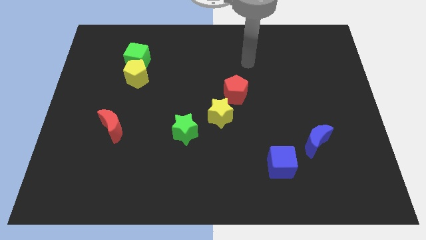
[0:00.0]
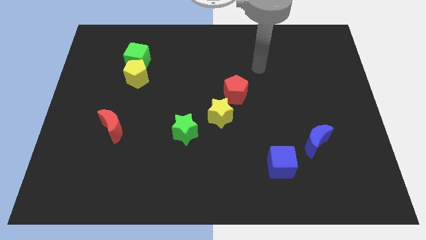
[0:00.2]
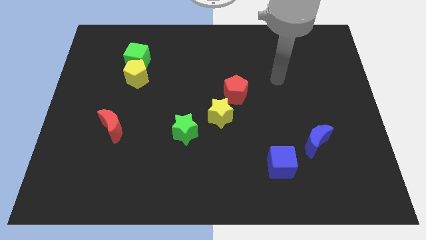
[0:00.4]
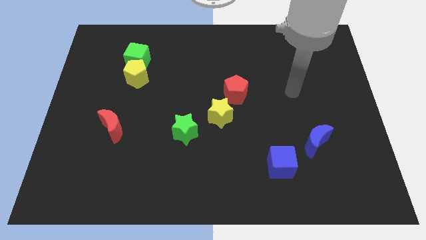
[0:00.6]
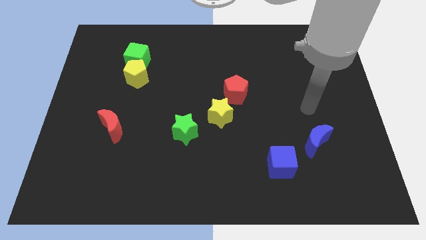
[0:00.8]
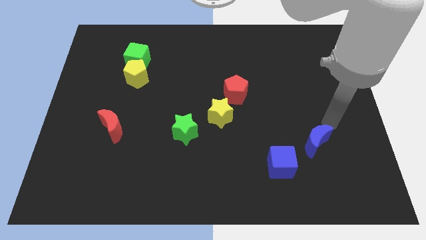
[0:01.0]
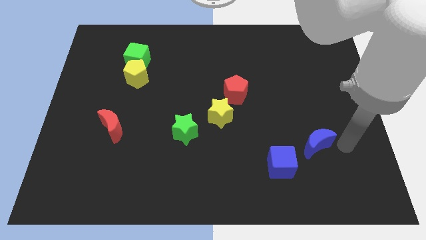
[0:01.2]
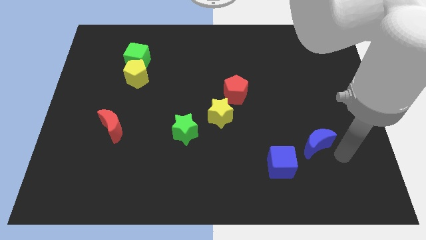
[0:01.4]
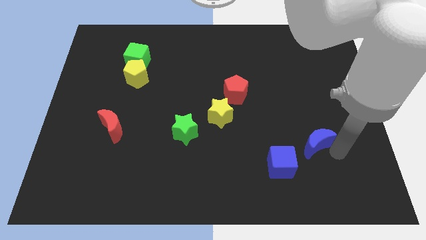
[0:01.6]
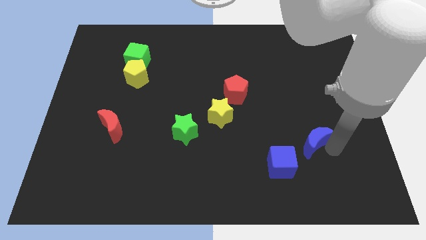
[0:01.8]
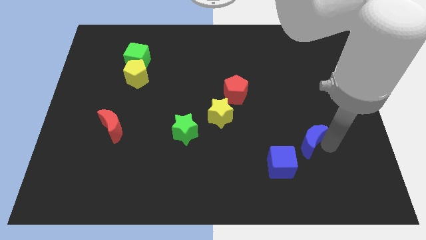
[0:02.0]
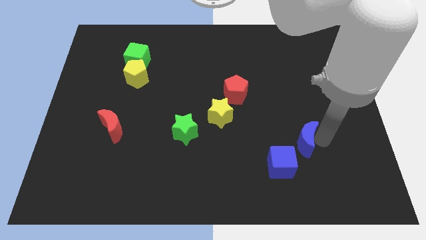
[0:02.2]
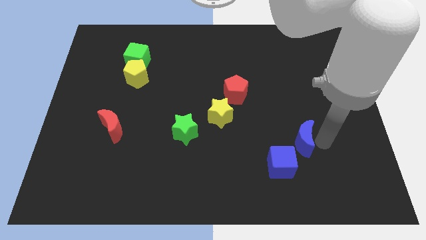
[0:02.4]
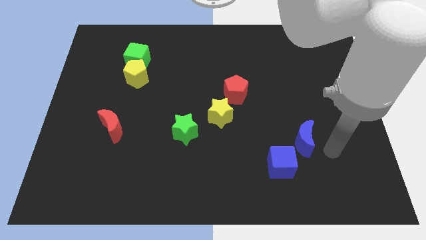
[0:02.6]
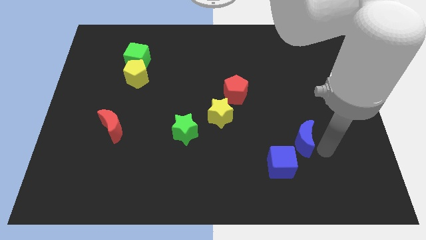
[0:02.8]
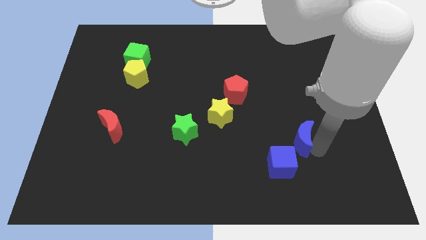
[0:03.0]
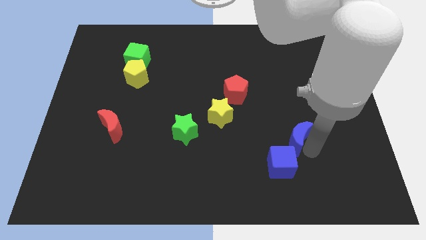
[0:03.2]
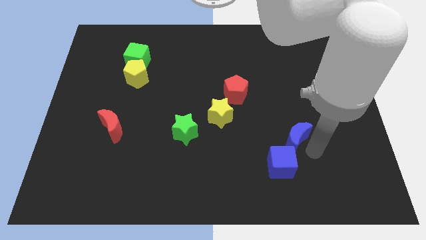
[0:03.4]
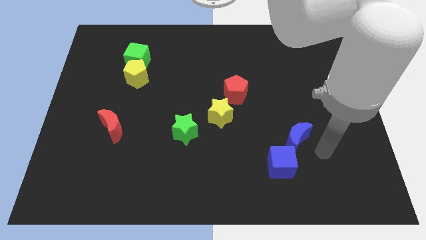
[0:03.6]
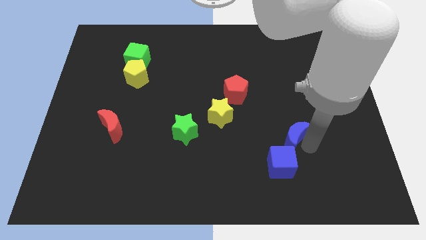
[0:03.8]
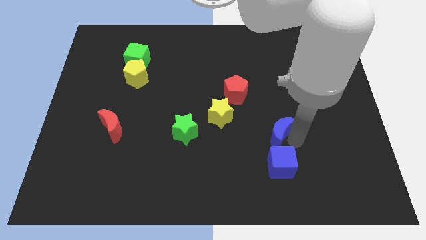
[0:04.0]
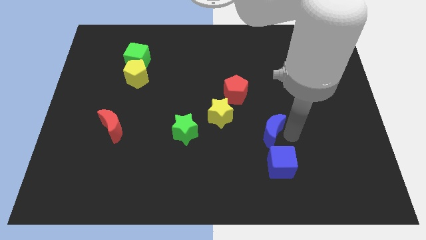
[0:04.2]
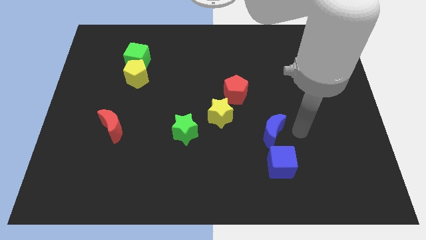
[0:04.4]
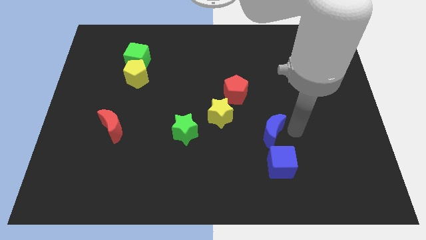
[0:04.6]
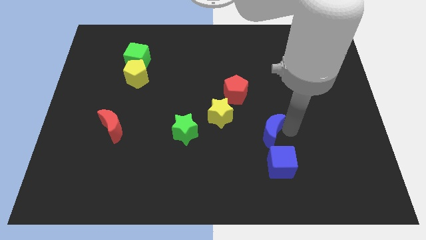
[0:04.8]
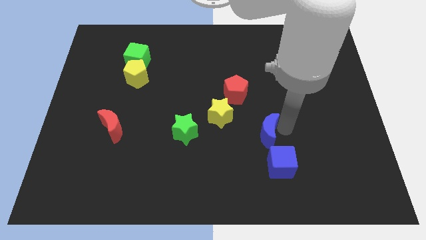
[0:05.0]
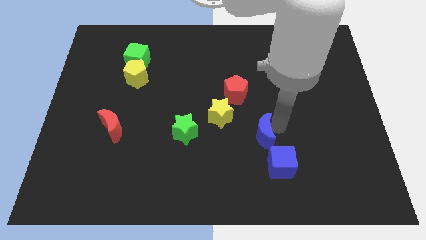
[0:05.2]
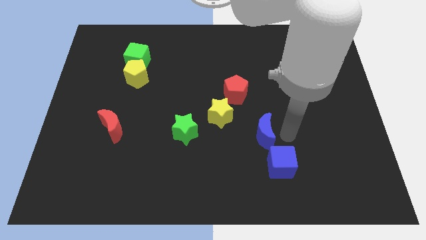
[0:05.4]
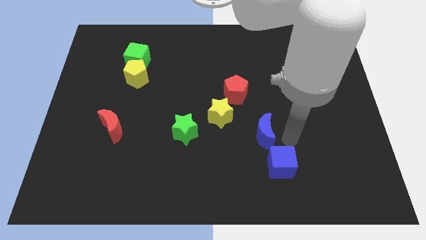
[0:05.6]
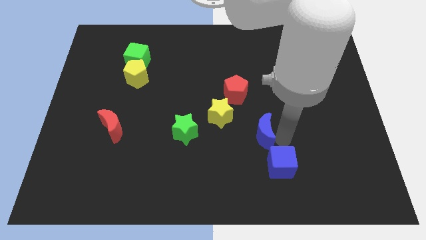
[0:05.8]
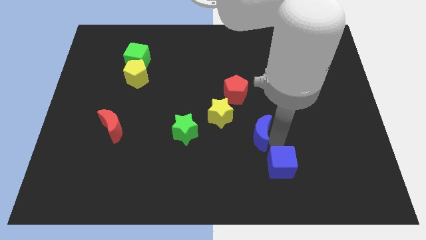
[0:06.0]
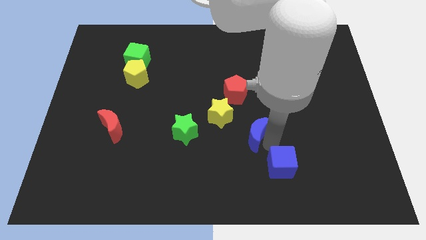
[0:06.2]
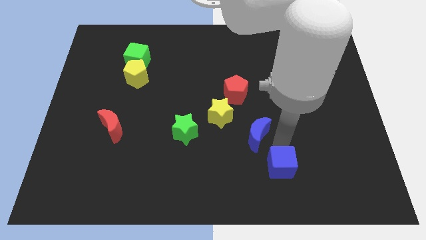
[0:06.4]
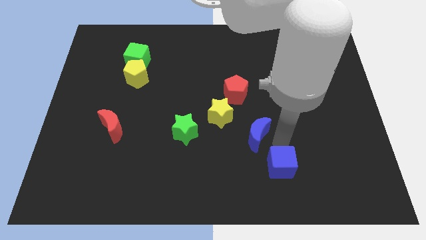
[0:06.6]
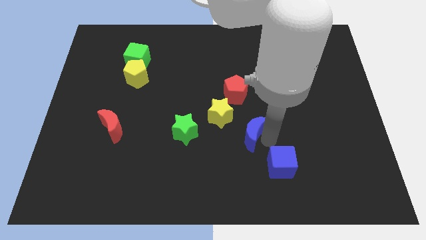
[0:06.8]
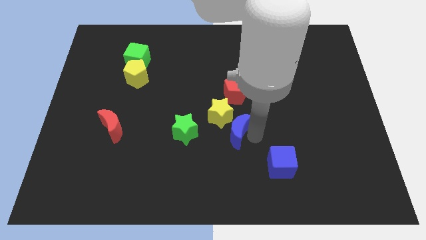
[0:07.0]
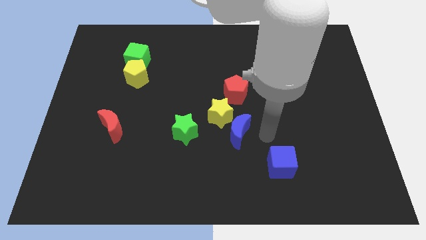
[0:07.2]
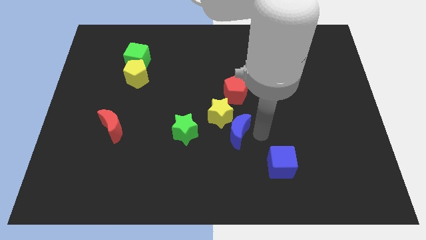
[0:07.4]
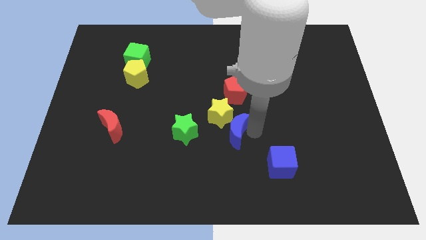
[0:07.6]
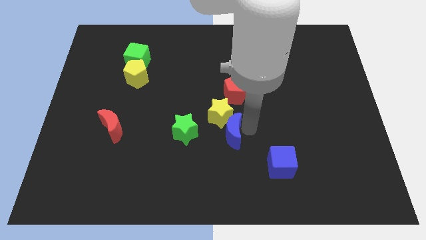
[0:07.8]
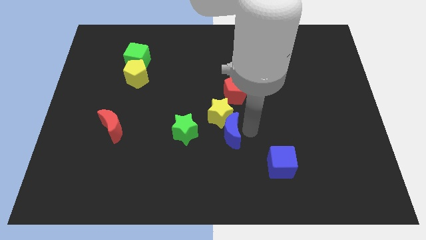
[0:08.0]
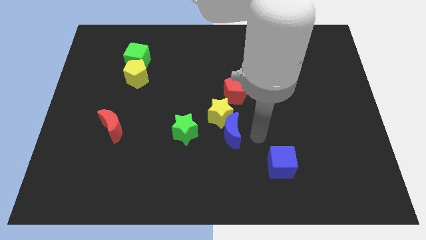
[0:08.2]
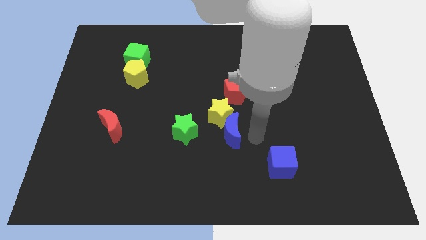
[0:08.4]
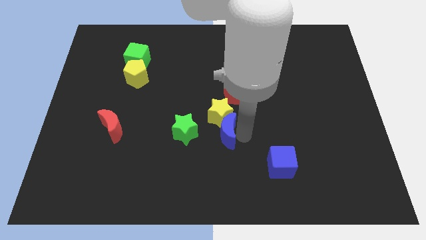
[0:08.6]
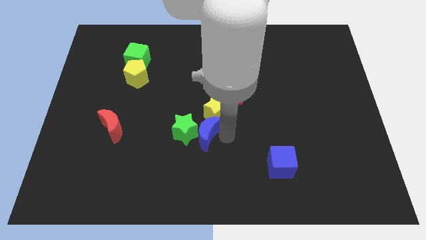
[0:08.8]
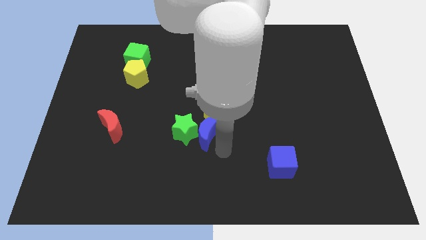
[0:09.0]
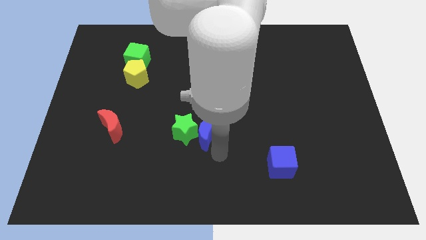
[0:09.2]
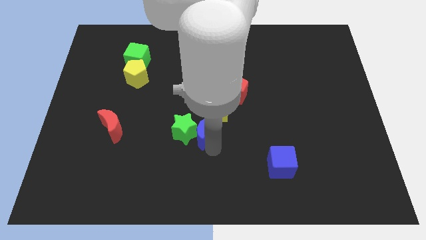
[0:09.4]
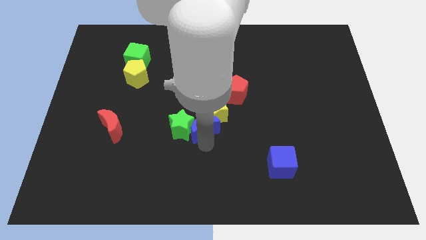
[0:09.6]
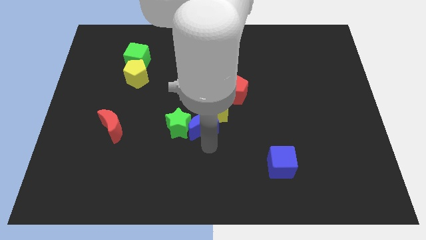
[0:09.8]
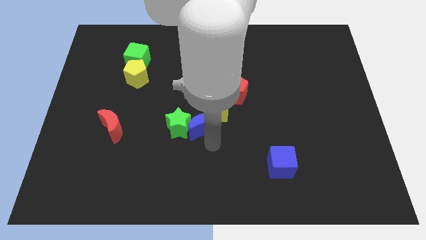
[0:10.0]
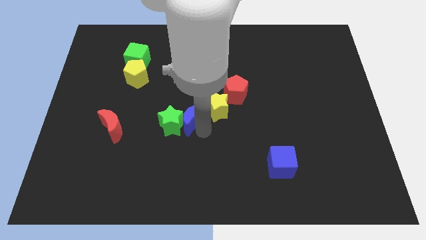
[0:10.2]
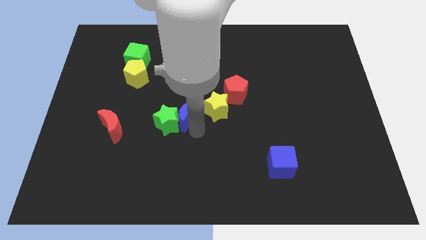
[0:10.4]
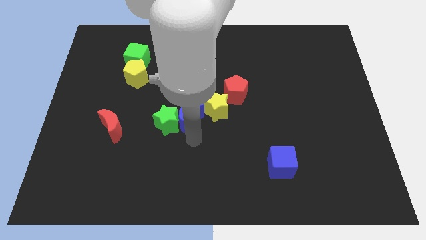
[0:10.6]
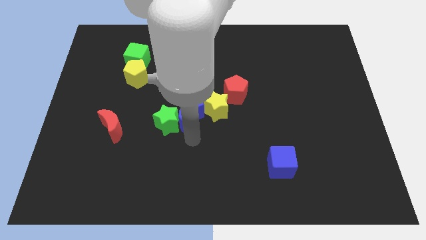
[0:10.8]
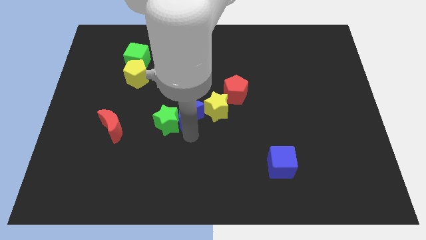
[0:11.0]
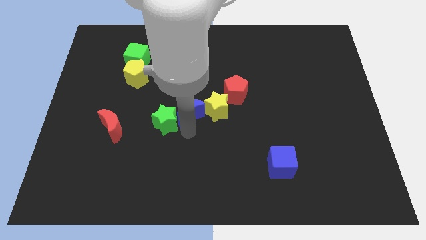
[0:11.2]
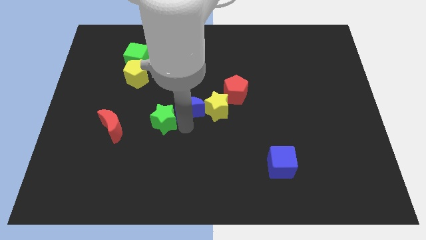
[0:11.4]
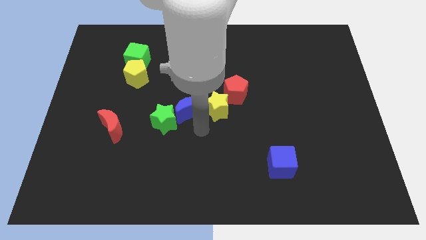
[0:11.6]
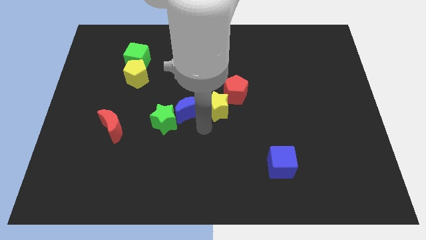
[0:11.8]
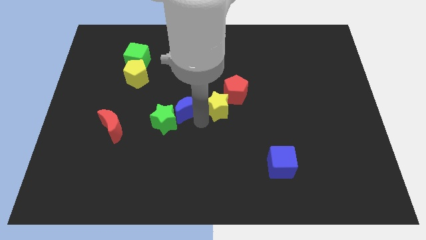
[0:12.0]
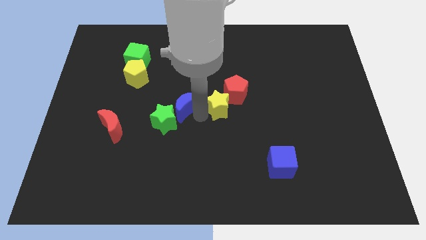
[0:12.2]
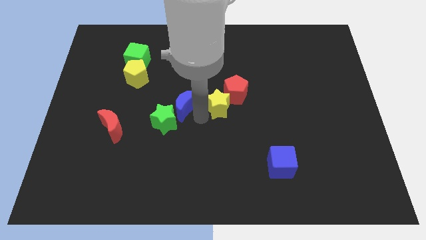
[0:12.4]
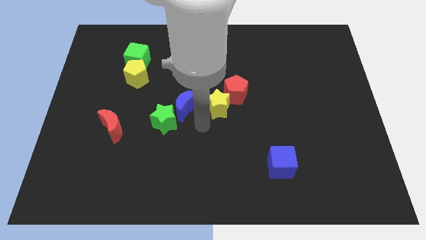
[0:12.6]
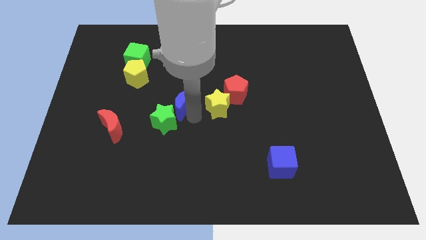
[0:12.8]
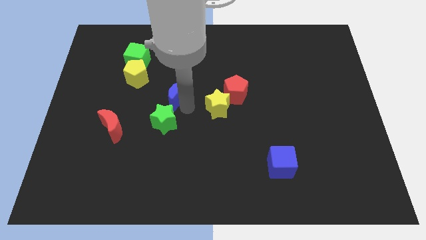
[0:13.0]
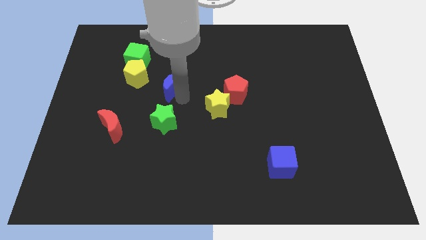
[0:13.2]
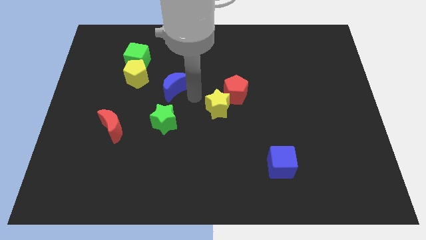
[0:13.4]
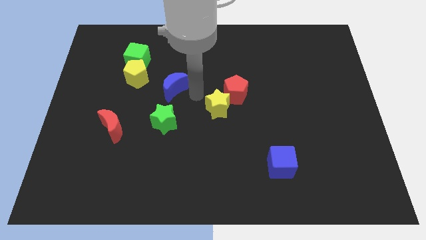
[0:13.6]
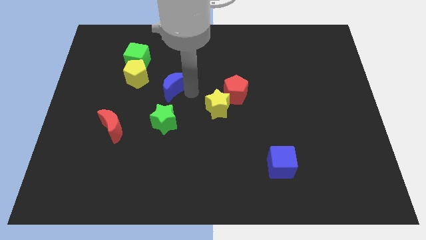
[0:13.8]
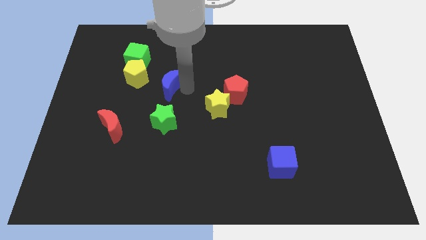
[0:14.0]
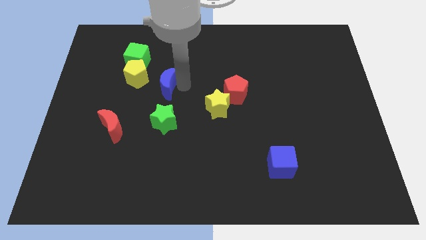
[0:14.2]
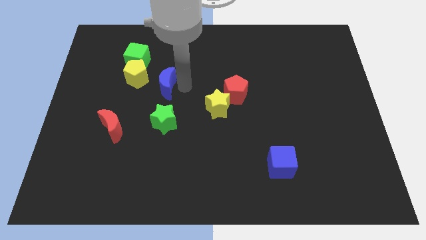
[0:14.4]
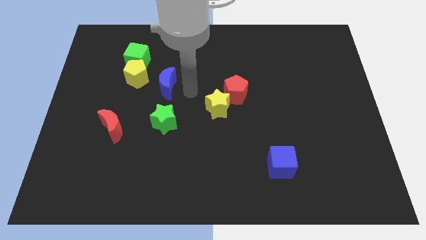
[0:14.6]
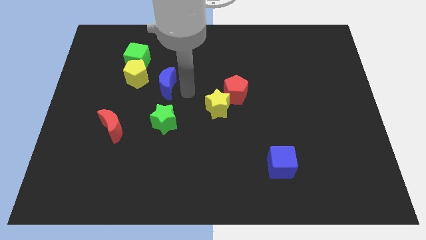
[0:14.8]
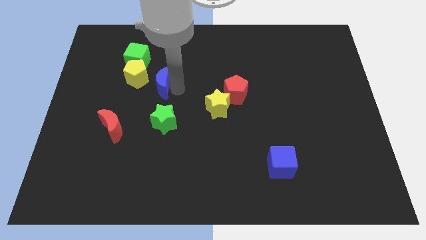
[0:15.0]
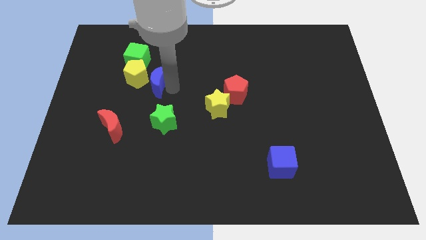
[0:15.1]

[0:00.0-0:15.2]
move the blue moon towards the yellow pentagon
